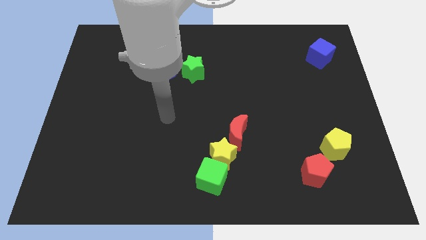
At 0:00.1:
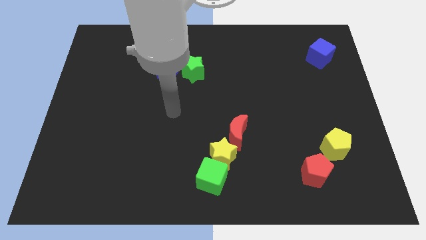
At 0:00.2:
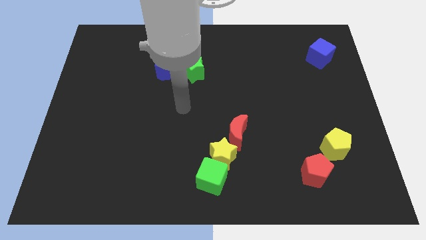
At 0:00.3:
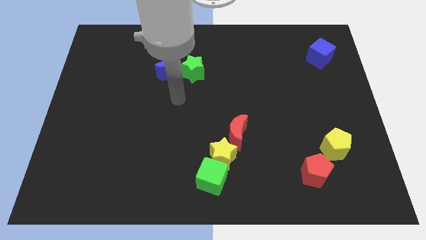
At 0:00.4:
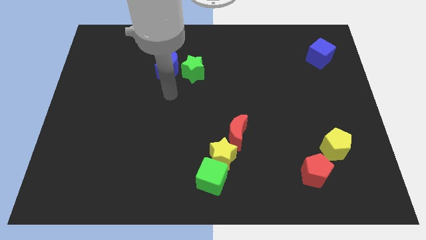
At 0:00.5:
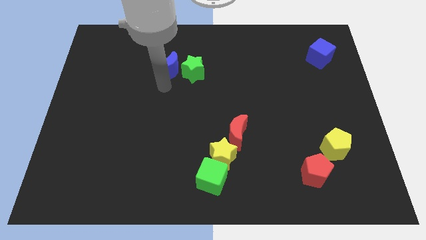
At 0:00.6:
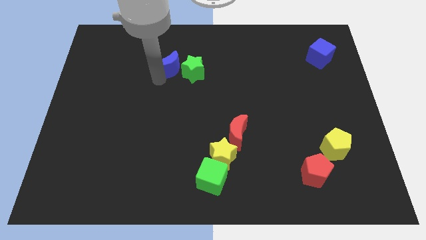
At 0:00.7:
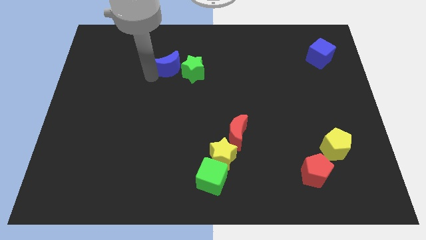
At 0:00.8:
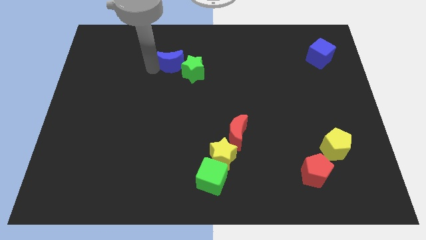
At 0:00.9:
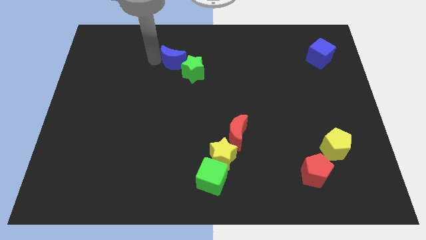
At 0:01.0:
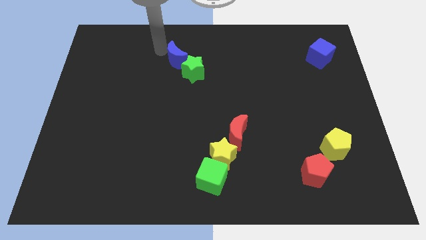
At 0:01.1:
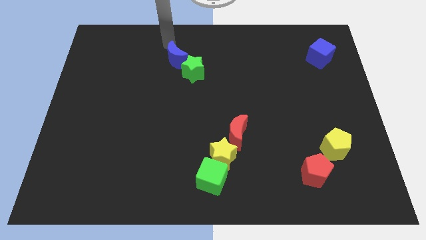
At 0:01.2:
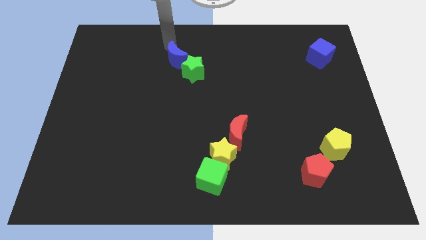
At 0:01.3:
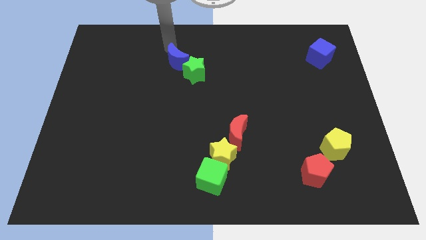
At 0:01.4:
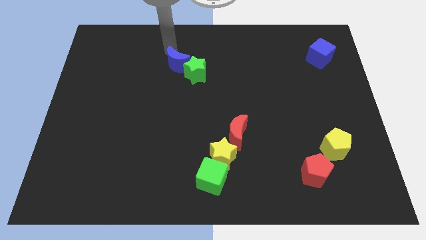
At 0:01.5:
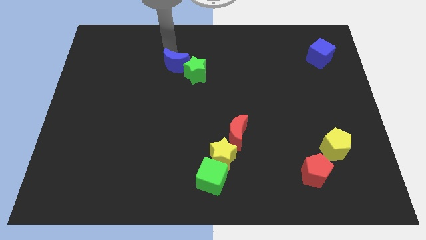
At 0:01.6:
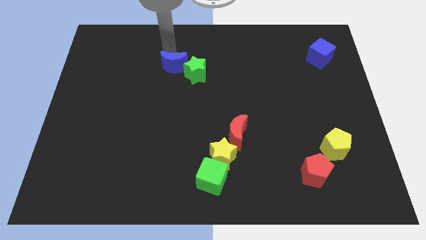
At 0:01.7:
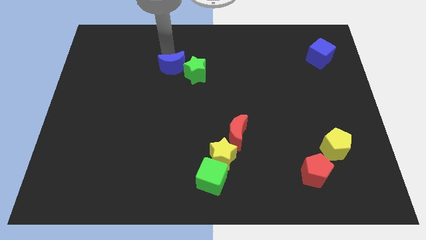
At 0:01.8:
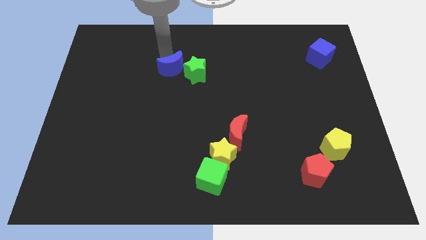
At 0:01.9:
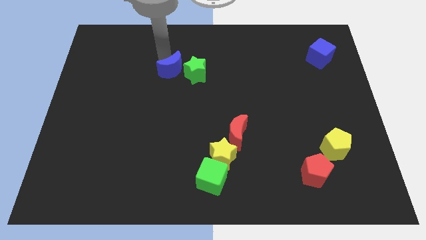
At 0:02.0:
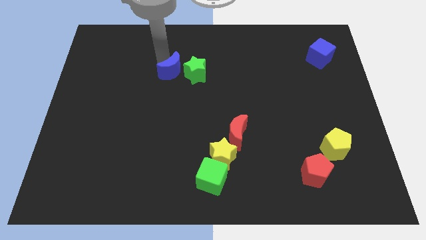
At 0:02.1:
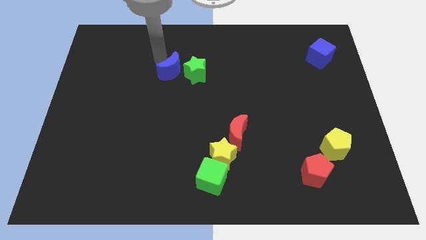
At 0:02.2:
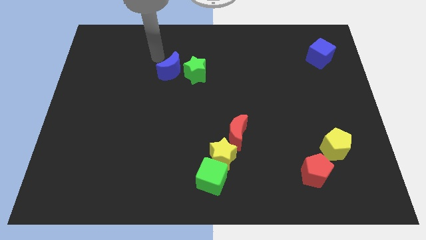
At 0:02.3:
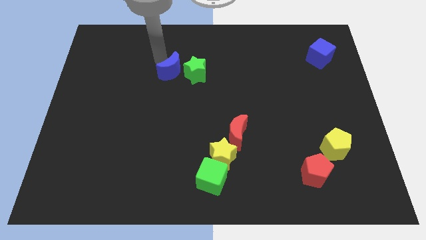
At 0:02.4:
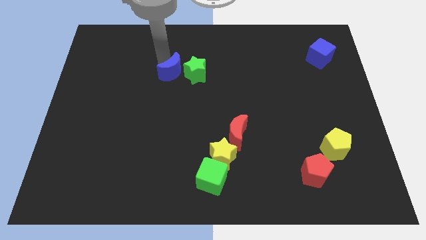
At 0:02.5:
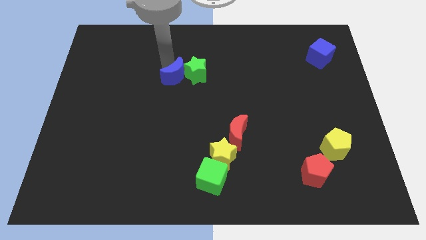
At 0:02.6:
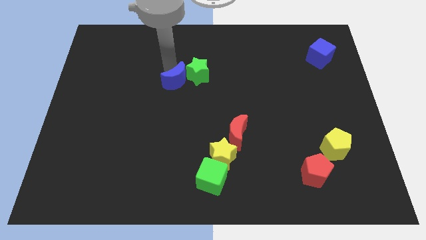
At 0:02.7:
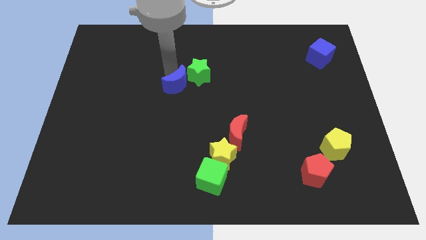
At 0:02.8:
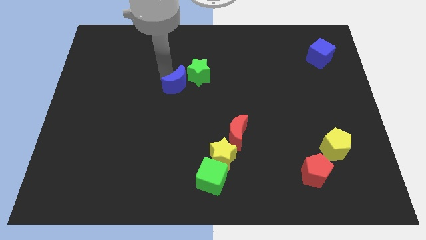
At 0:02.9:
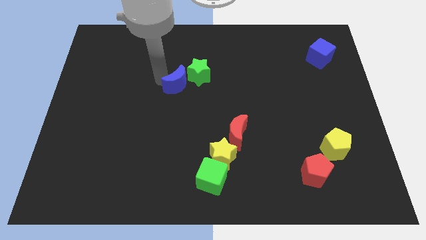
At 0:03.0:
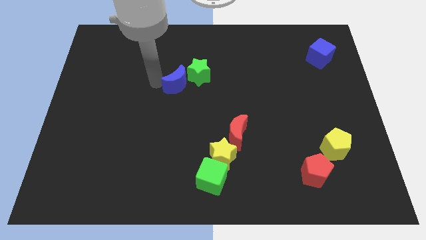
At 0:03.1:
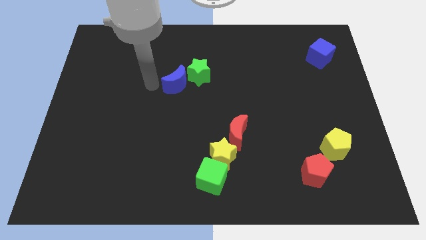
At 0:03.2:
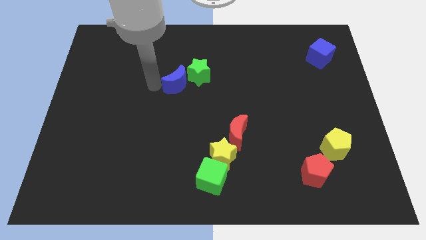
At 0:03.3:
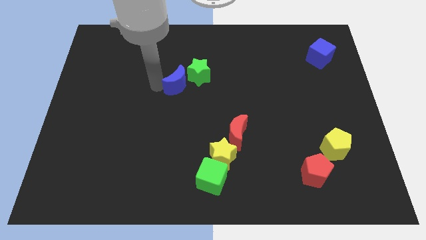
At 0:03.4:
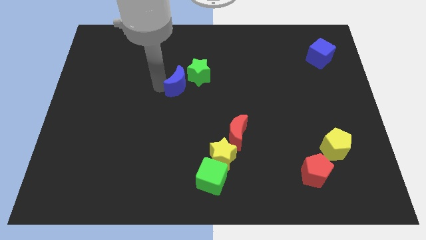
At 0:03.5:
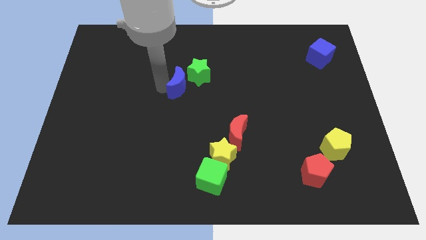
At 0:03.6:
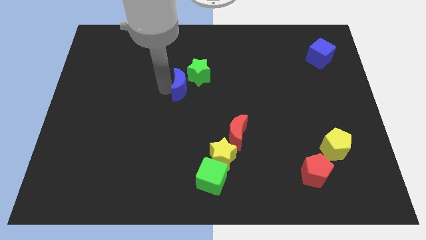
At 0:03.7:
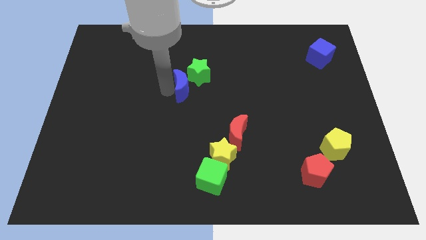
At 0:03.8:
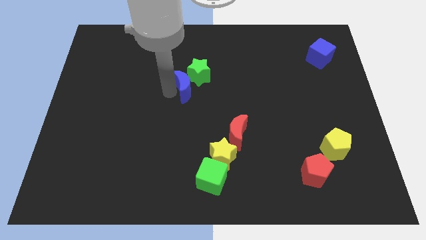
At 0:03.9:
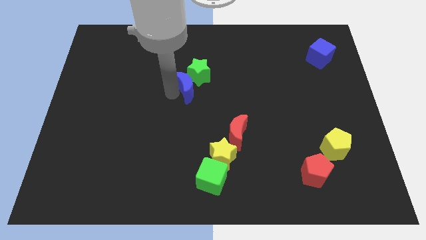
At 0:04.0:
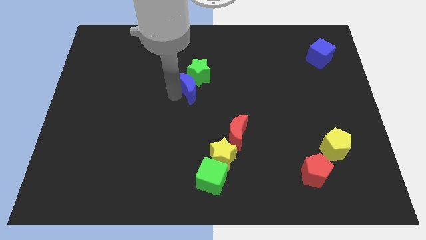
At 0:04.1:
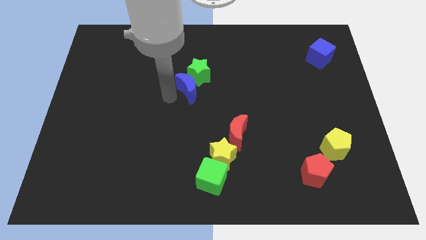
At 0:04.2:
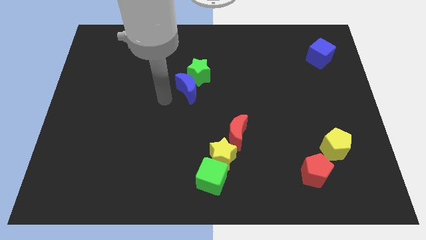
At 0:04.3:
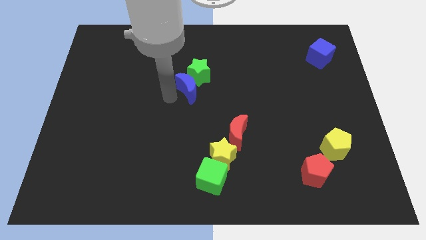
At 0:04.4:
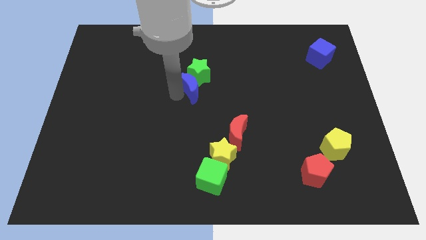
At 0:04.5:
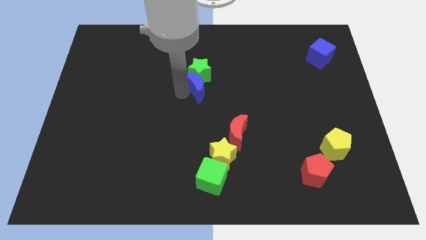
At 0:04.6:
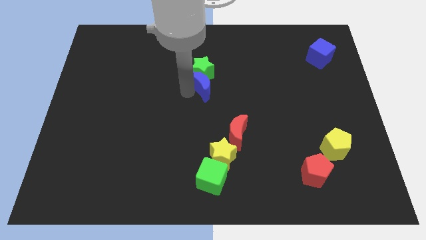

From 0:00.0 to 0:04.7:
move the blue moon right slightly

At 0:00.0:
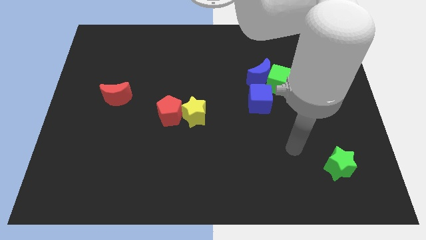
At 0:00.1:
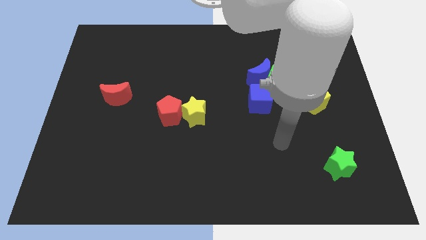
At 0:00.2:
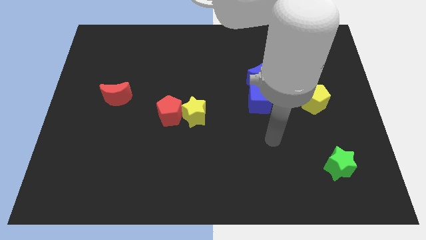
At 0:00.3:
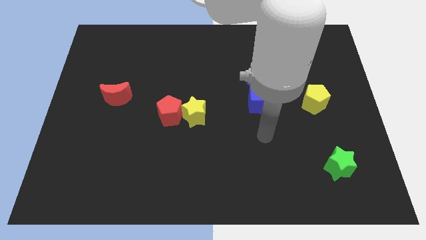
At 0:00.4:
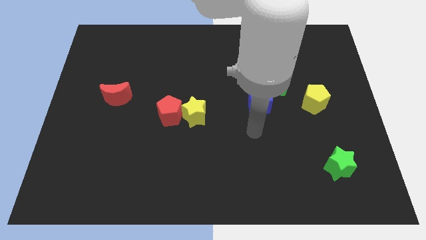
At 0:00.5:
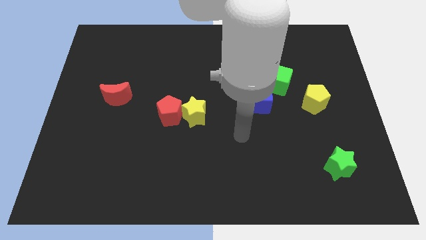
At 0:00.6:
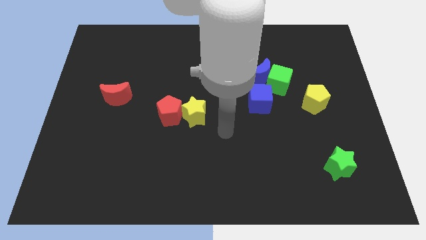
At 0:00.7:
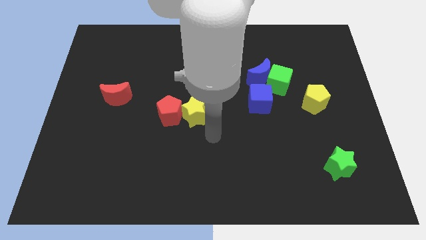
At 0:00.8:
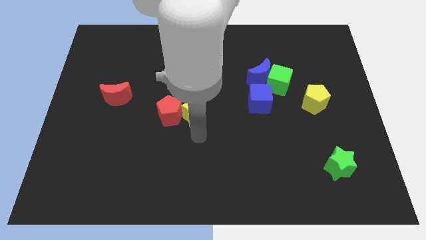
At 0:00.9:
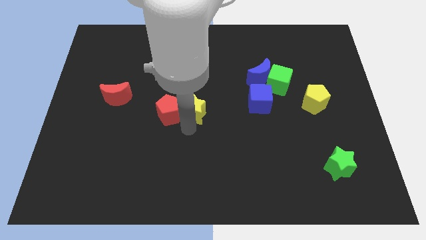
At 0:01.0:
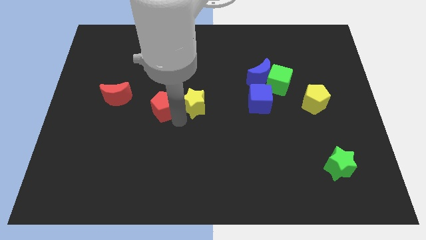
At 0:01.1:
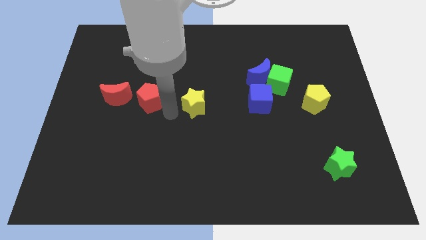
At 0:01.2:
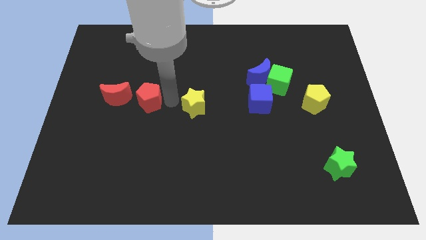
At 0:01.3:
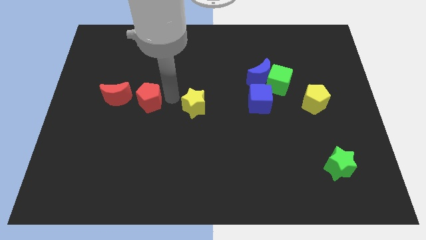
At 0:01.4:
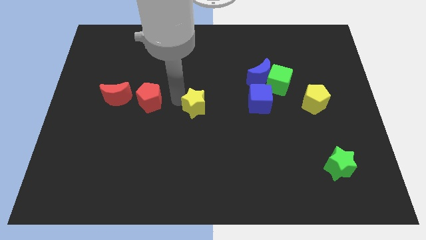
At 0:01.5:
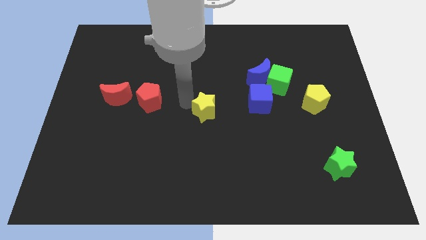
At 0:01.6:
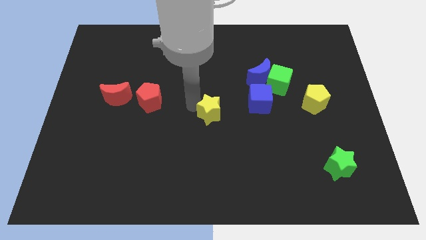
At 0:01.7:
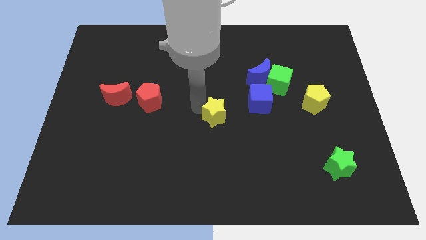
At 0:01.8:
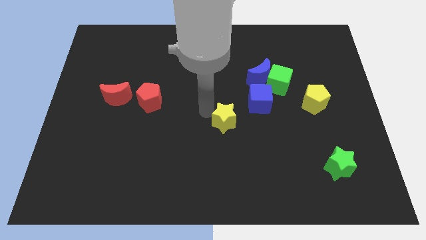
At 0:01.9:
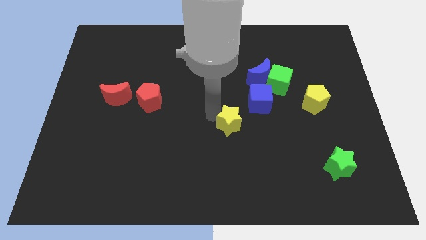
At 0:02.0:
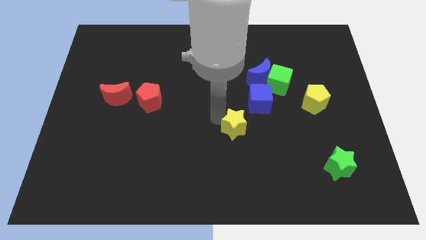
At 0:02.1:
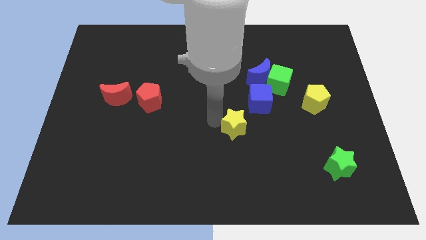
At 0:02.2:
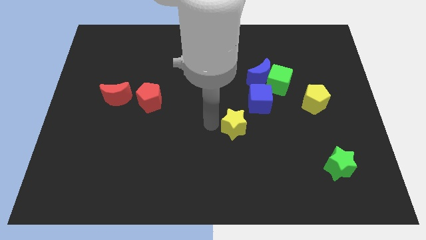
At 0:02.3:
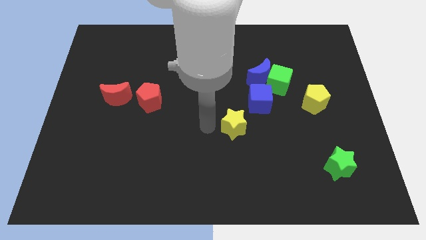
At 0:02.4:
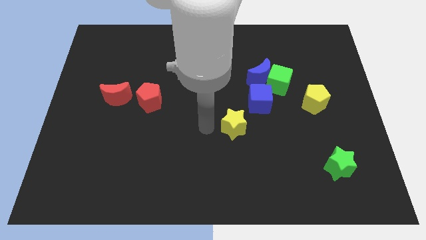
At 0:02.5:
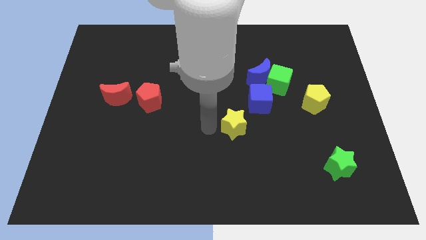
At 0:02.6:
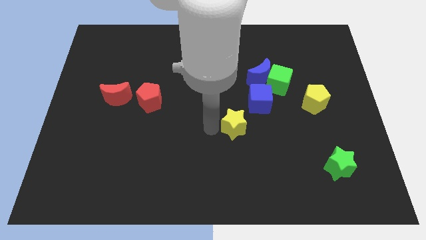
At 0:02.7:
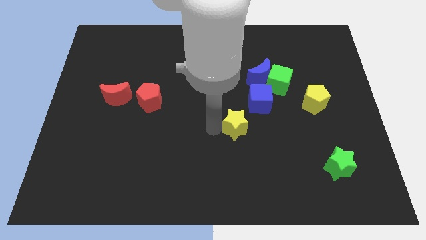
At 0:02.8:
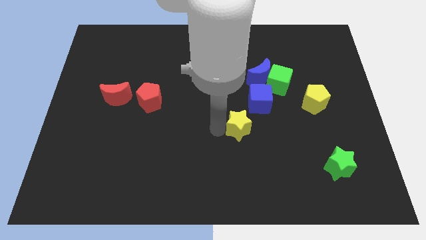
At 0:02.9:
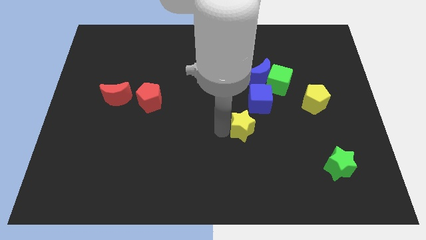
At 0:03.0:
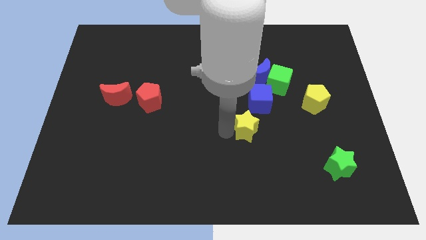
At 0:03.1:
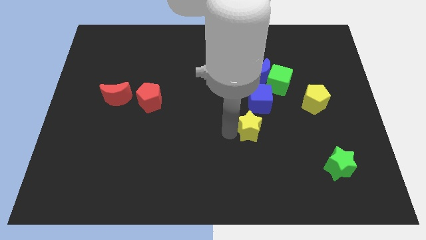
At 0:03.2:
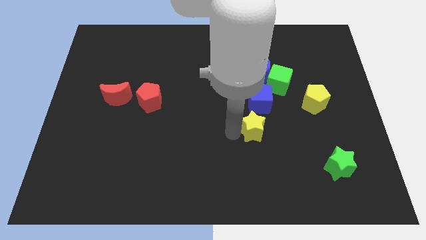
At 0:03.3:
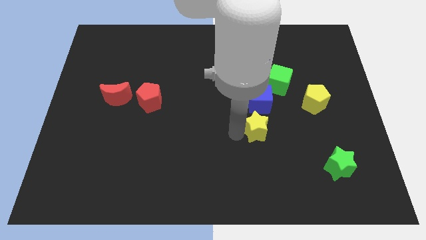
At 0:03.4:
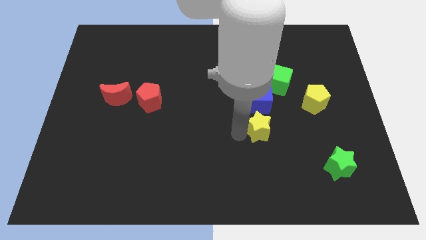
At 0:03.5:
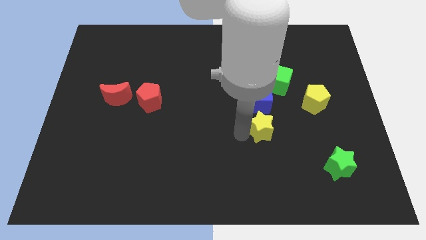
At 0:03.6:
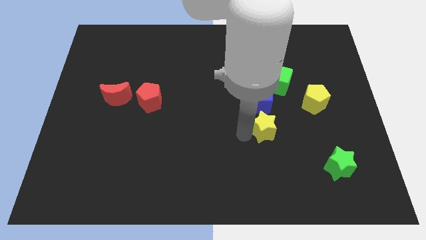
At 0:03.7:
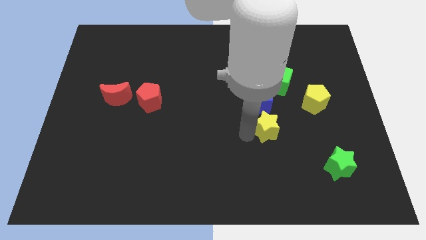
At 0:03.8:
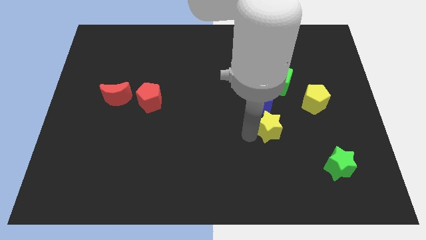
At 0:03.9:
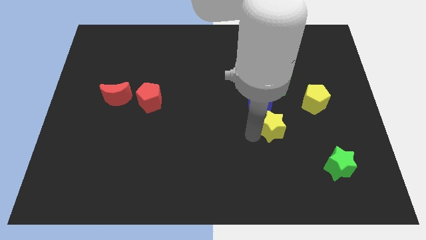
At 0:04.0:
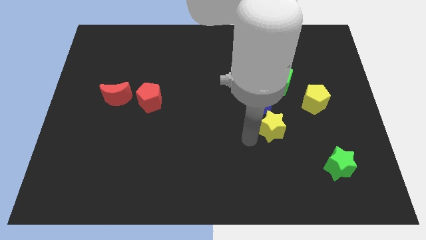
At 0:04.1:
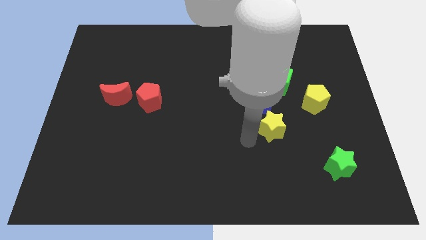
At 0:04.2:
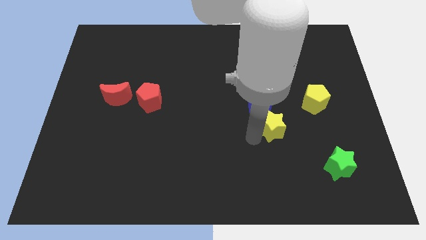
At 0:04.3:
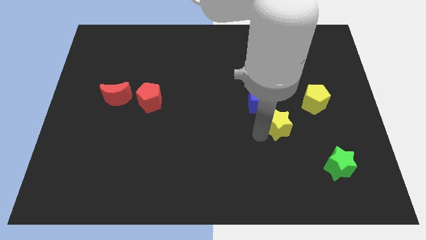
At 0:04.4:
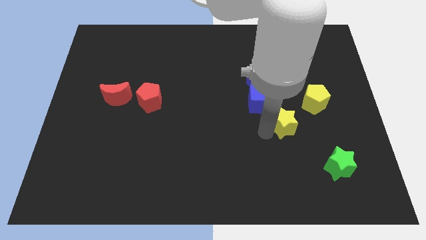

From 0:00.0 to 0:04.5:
slide the yellow star right
